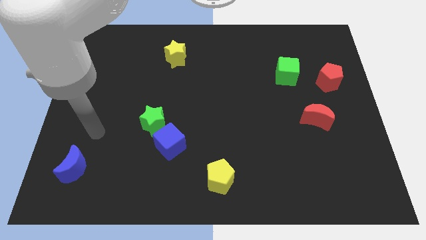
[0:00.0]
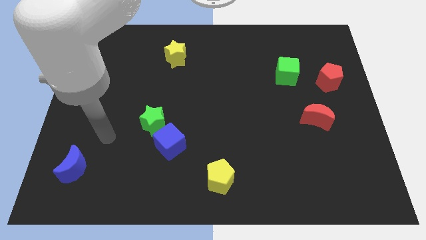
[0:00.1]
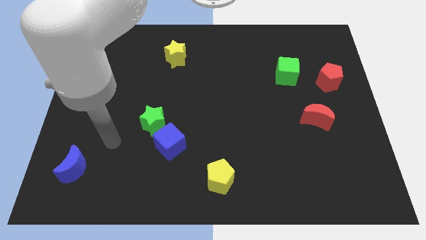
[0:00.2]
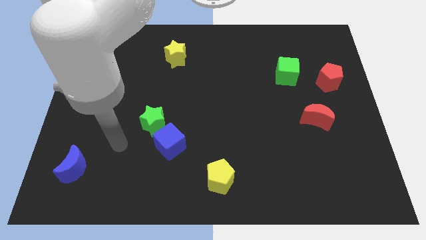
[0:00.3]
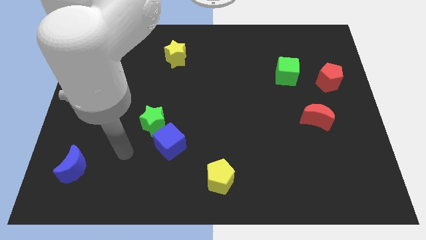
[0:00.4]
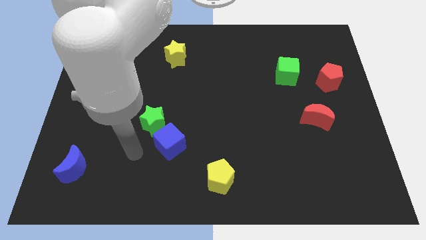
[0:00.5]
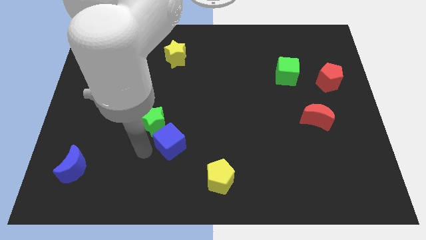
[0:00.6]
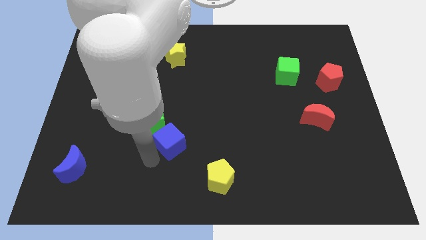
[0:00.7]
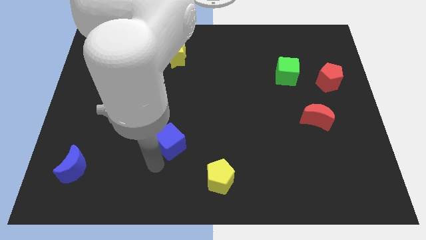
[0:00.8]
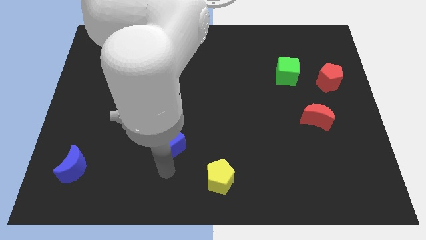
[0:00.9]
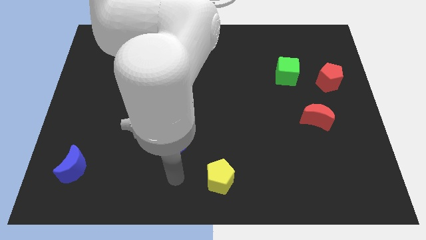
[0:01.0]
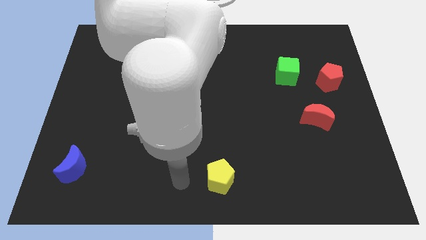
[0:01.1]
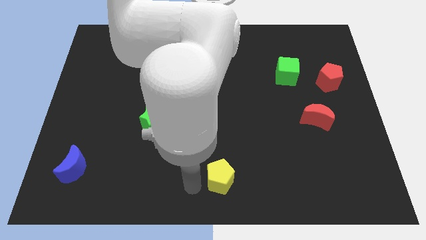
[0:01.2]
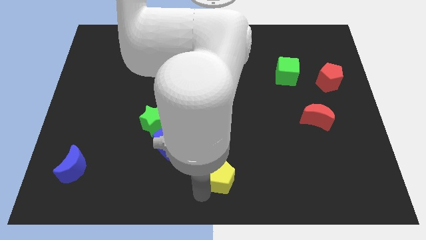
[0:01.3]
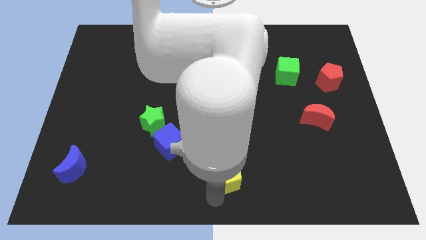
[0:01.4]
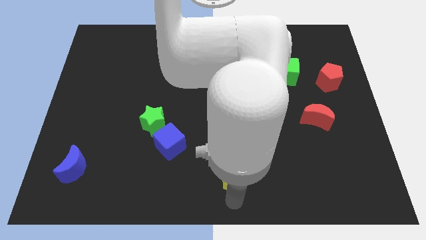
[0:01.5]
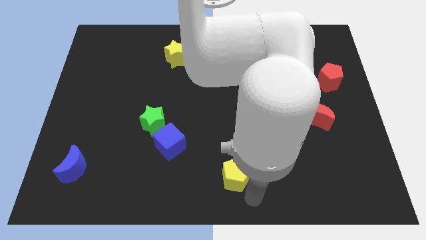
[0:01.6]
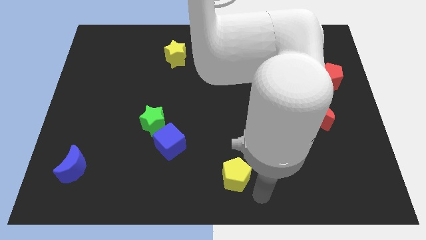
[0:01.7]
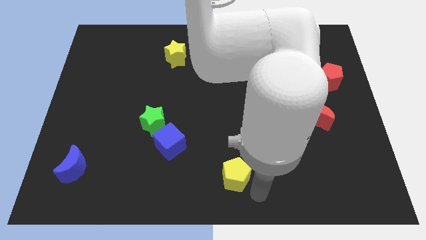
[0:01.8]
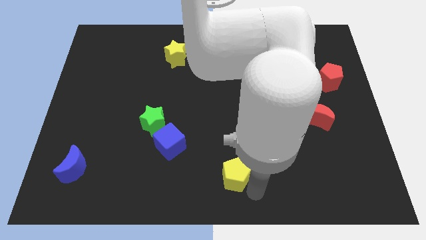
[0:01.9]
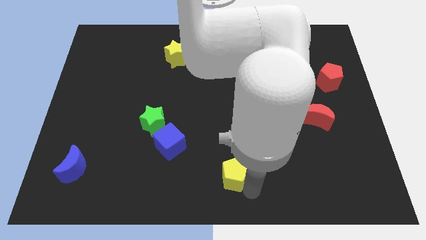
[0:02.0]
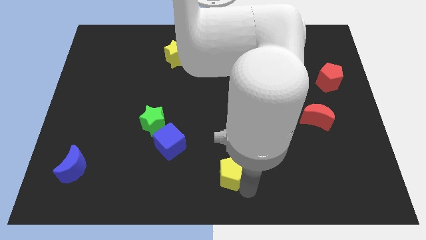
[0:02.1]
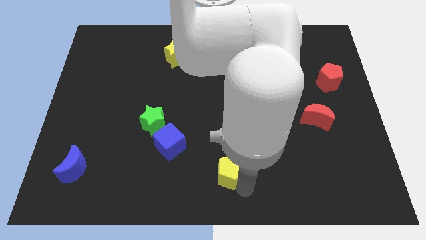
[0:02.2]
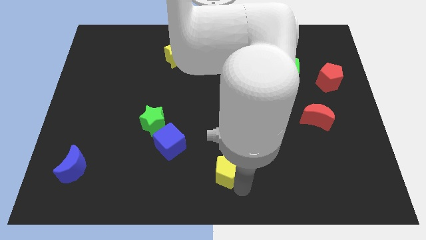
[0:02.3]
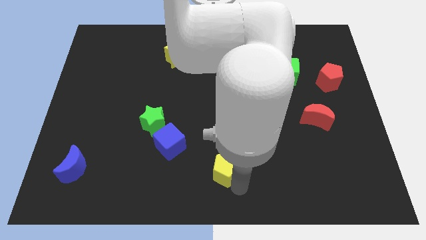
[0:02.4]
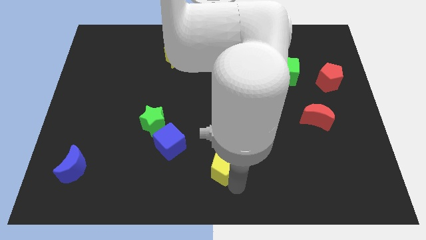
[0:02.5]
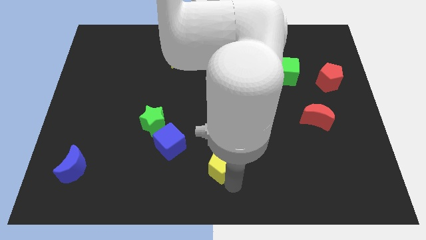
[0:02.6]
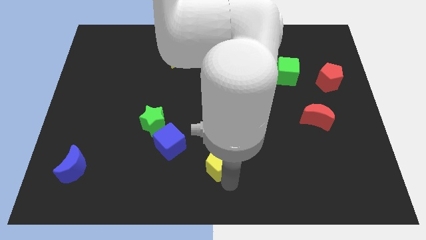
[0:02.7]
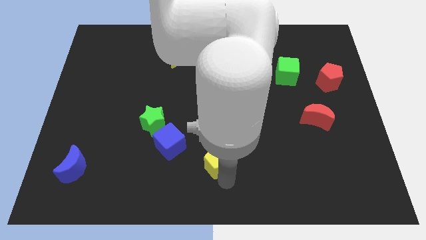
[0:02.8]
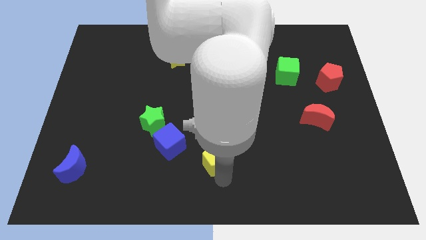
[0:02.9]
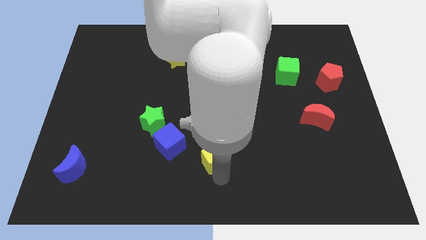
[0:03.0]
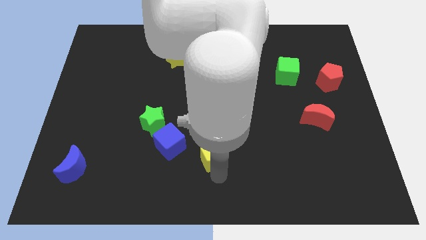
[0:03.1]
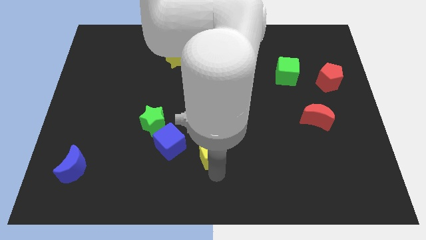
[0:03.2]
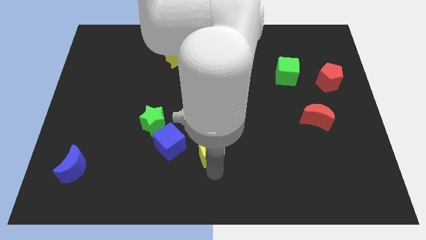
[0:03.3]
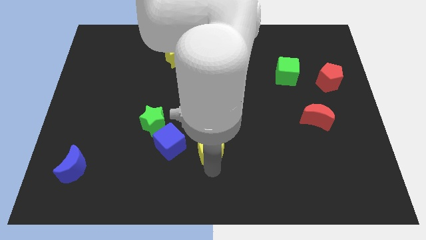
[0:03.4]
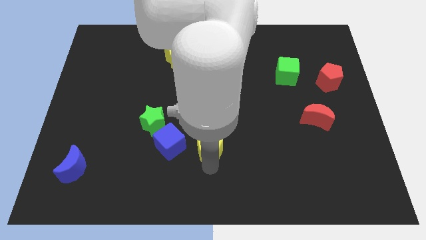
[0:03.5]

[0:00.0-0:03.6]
push the yellow pentagon upwards a bit

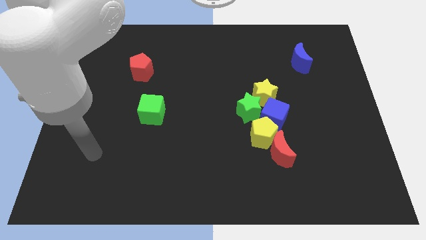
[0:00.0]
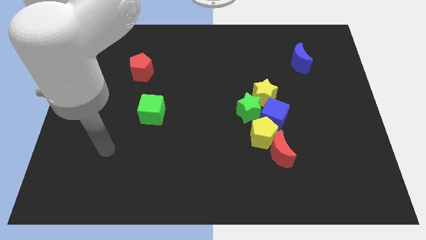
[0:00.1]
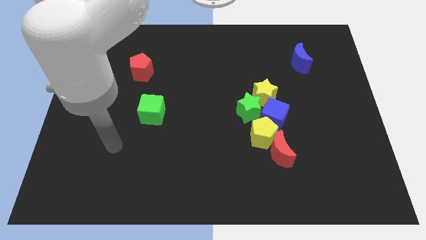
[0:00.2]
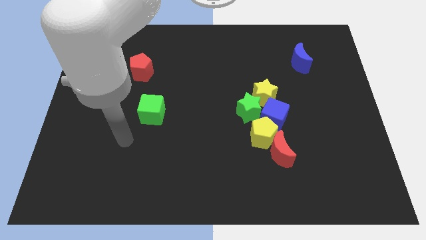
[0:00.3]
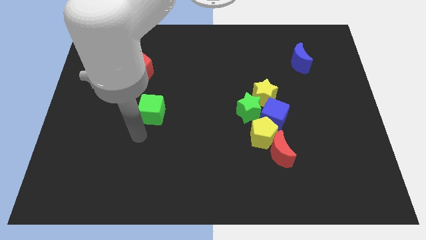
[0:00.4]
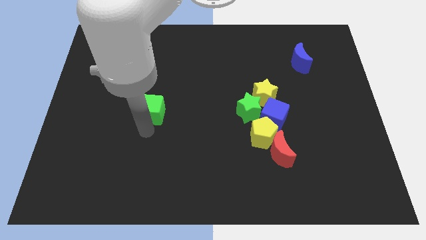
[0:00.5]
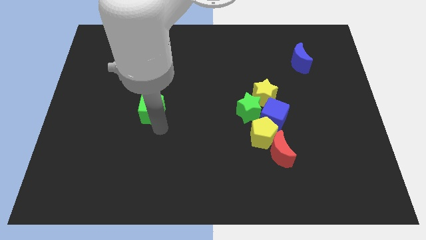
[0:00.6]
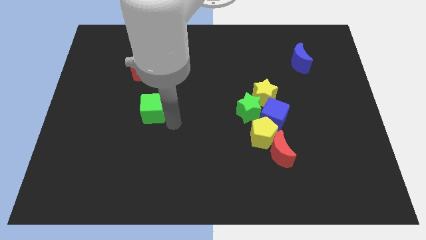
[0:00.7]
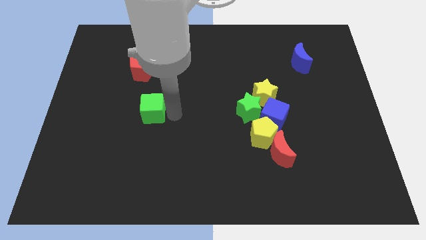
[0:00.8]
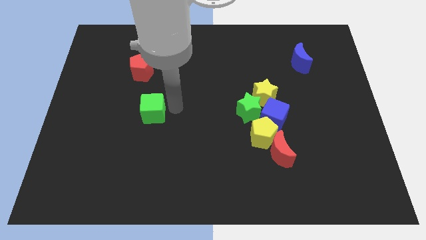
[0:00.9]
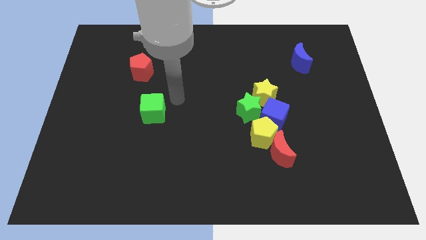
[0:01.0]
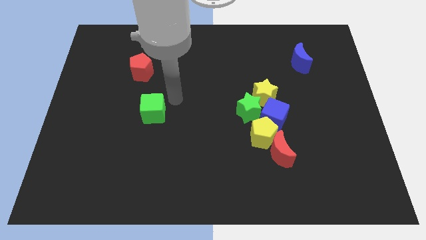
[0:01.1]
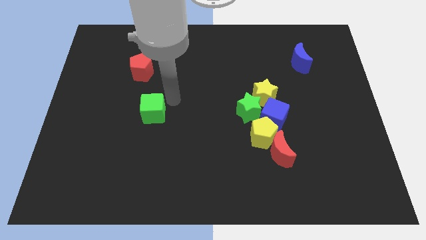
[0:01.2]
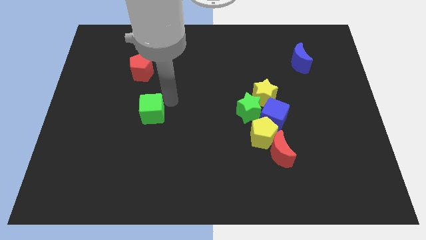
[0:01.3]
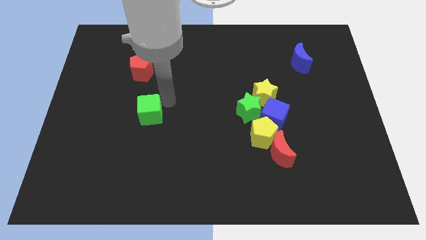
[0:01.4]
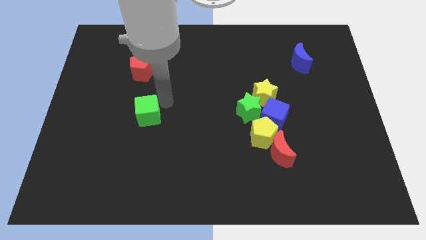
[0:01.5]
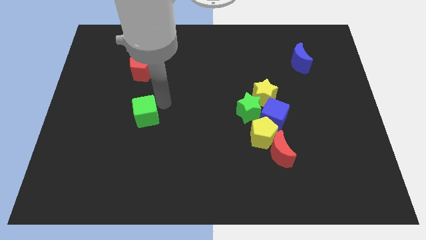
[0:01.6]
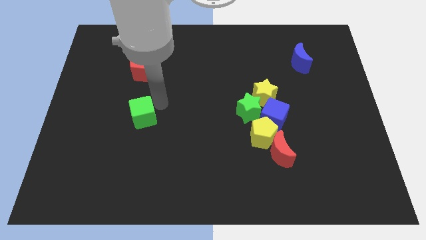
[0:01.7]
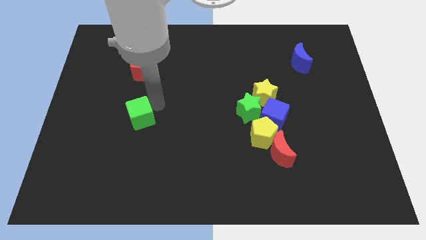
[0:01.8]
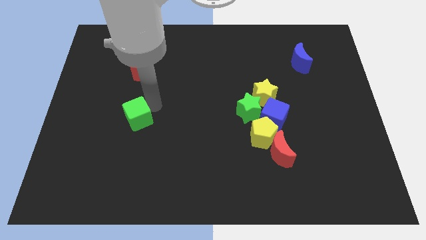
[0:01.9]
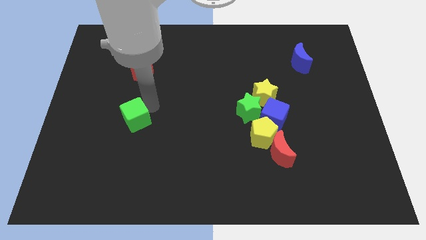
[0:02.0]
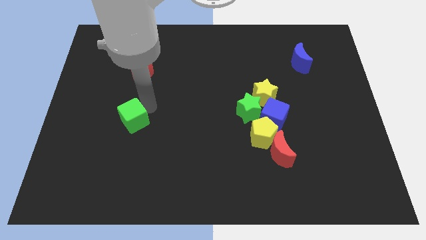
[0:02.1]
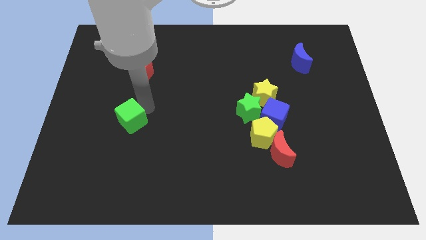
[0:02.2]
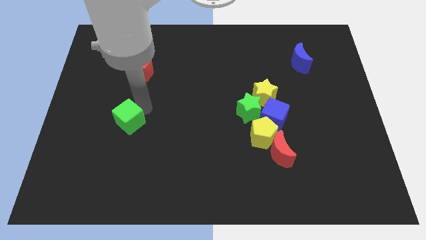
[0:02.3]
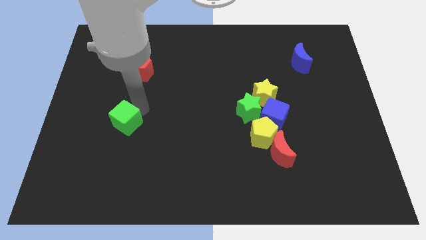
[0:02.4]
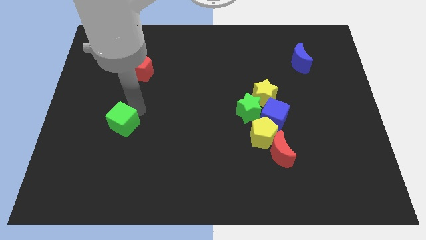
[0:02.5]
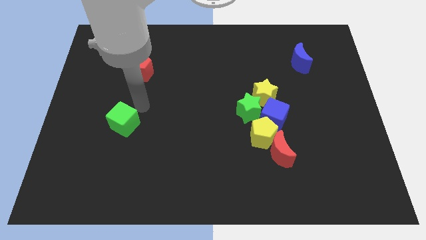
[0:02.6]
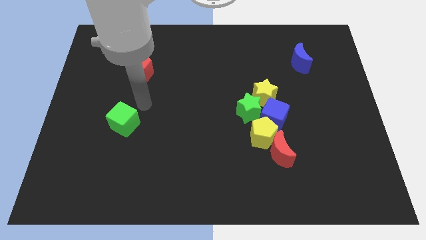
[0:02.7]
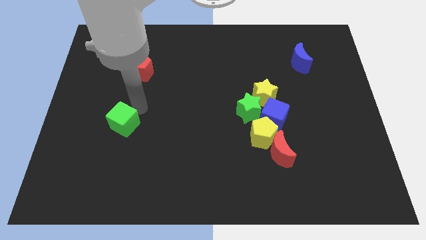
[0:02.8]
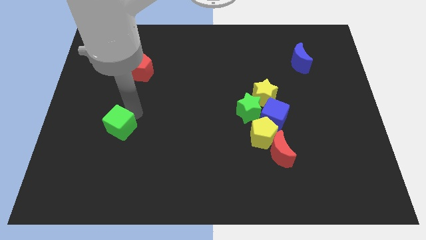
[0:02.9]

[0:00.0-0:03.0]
push the green cube down and left diagonally a little

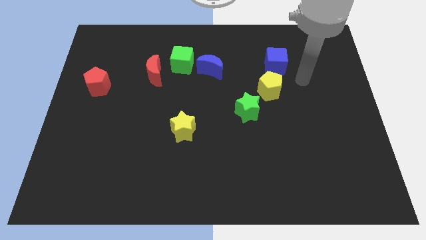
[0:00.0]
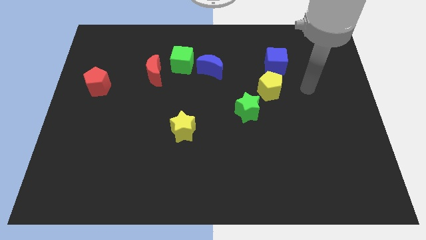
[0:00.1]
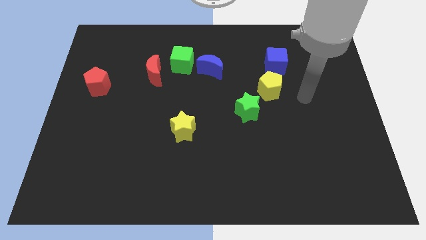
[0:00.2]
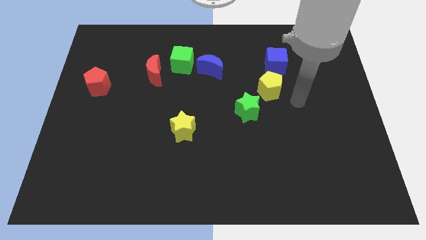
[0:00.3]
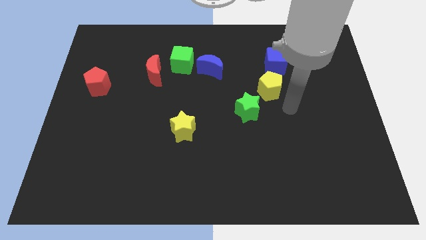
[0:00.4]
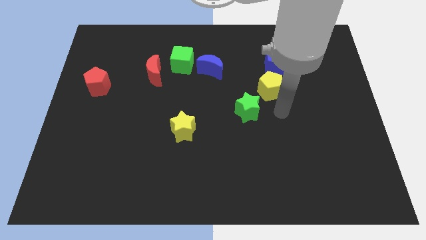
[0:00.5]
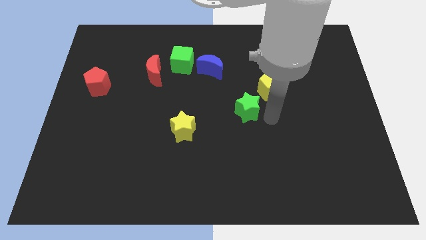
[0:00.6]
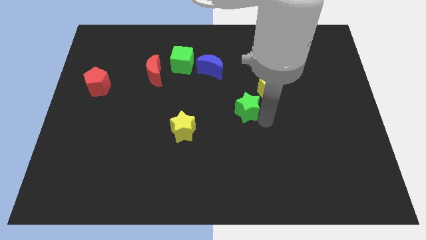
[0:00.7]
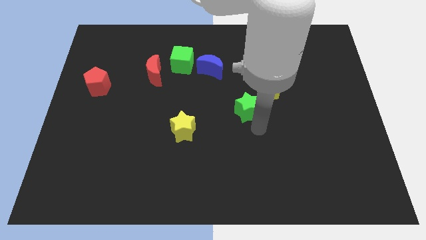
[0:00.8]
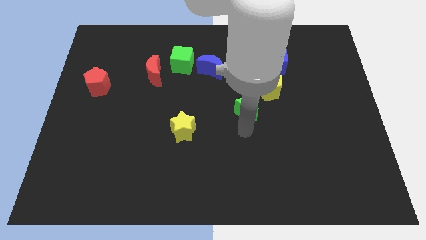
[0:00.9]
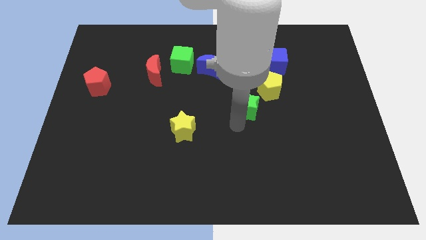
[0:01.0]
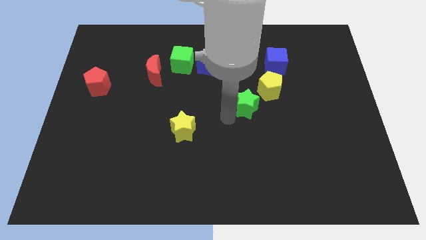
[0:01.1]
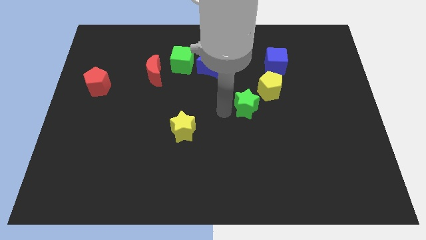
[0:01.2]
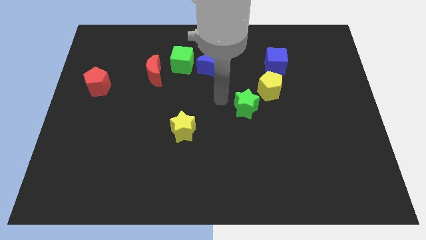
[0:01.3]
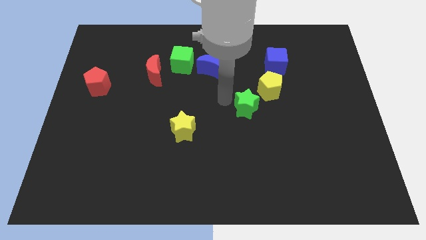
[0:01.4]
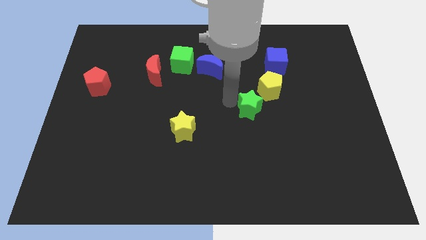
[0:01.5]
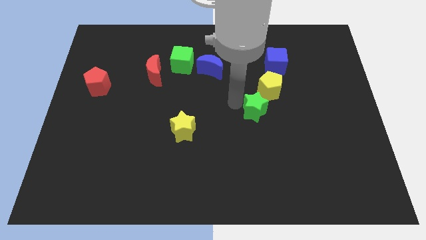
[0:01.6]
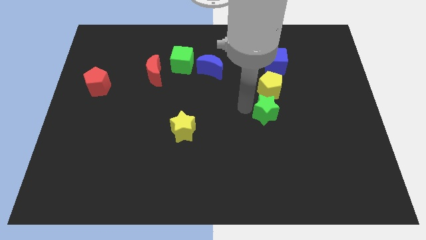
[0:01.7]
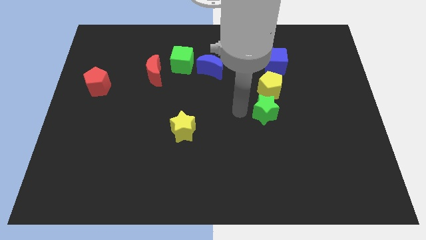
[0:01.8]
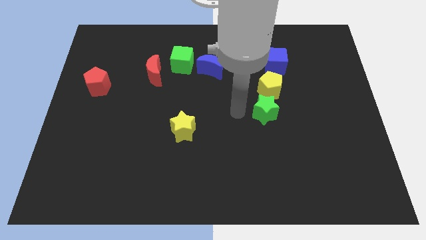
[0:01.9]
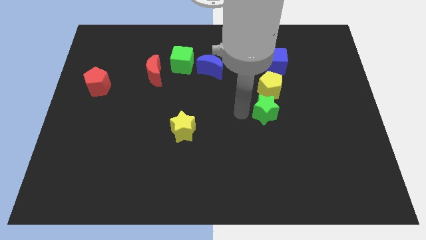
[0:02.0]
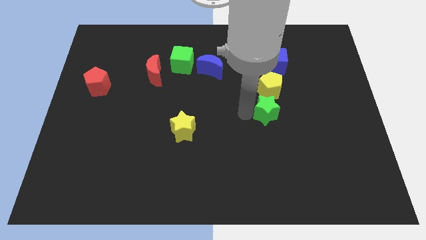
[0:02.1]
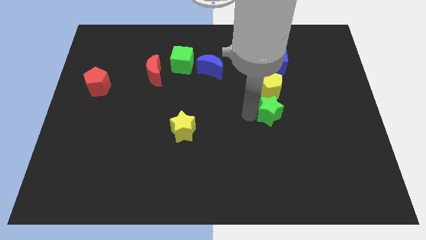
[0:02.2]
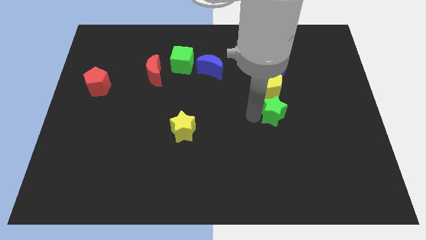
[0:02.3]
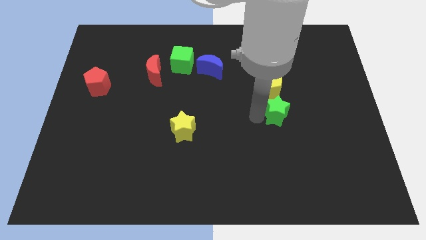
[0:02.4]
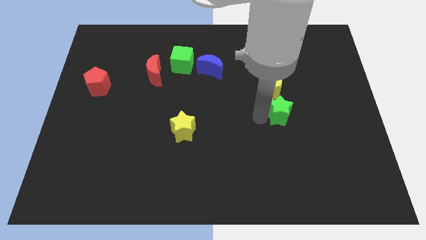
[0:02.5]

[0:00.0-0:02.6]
push the green star somewhat right
